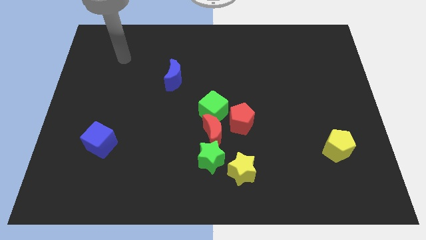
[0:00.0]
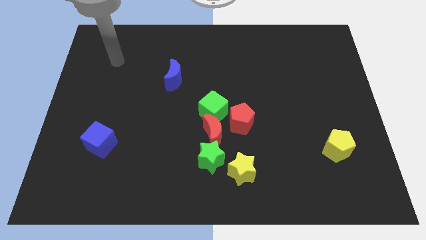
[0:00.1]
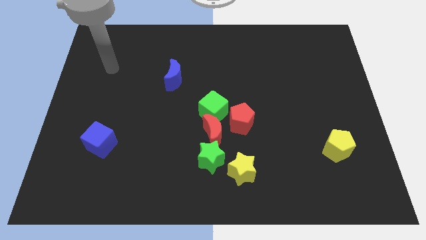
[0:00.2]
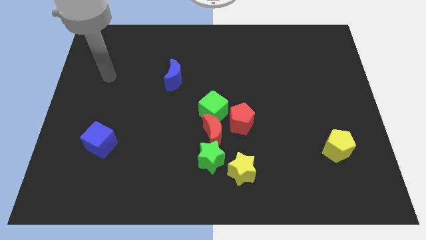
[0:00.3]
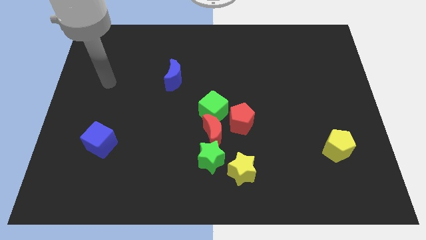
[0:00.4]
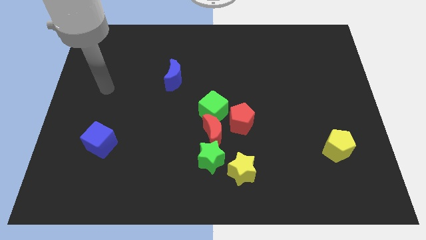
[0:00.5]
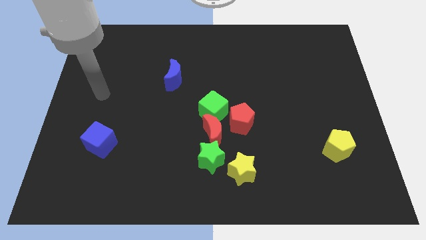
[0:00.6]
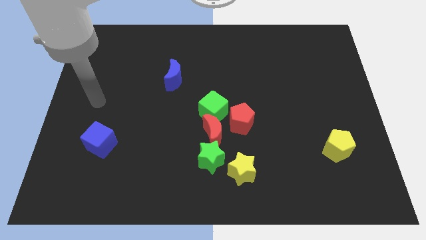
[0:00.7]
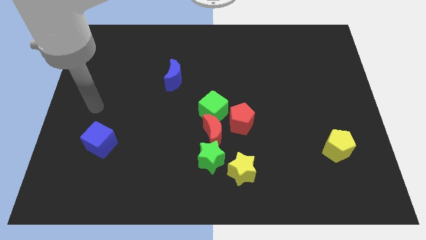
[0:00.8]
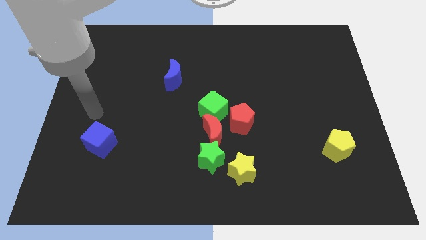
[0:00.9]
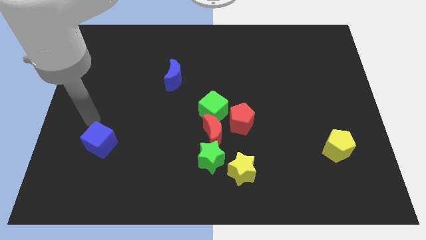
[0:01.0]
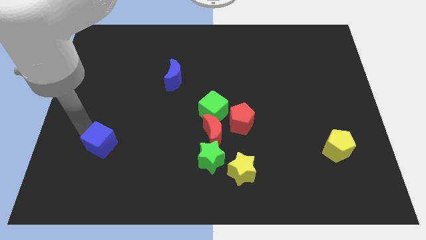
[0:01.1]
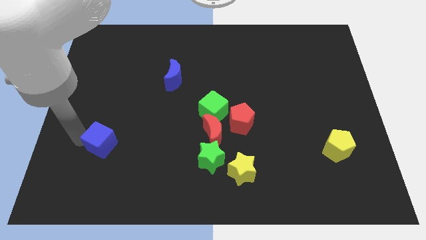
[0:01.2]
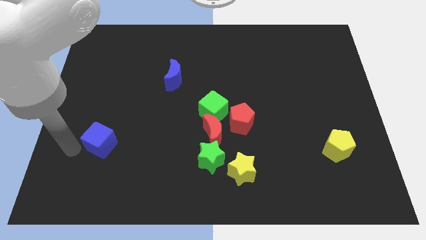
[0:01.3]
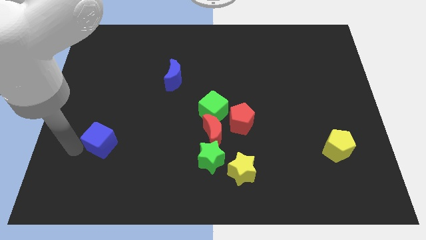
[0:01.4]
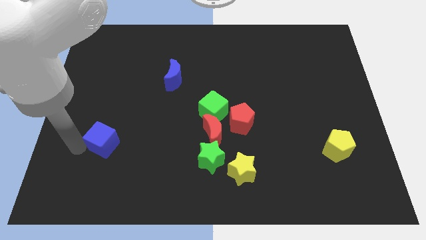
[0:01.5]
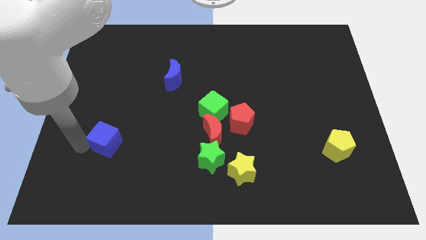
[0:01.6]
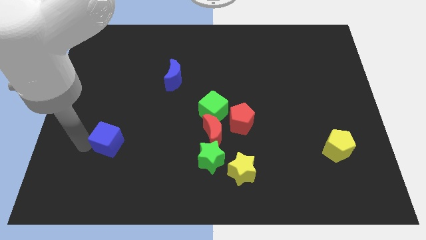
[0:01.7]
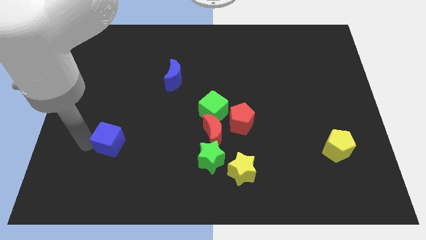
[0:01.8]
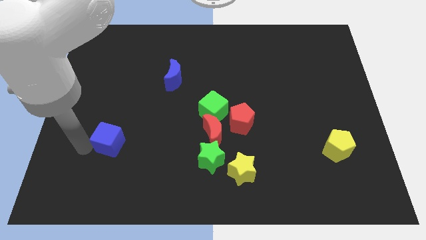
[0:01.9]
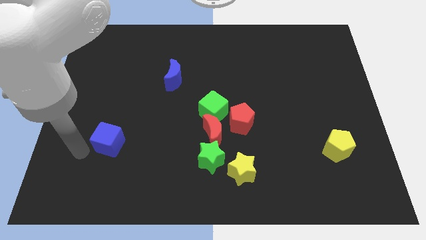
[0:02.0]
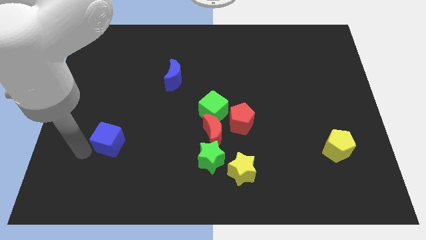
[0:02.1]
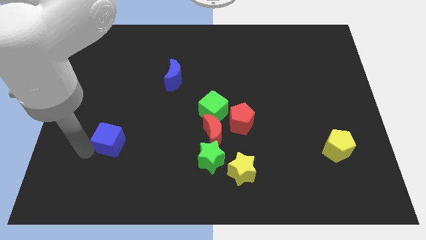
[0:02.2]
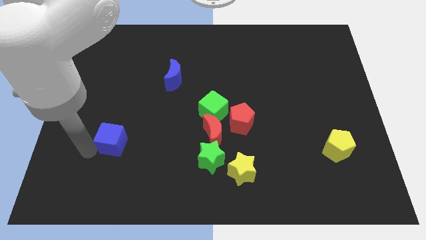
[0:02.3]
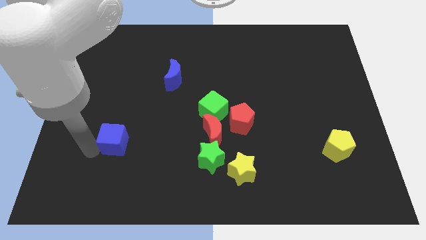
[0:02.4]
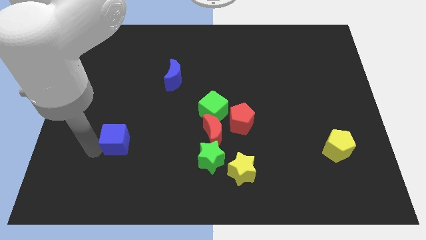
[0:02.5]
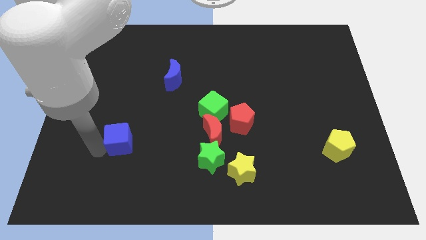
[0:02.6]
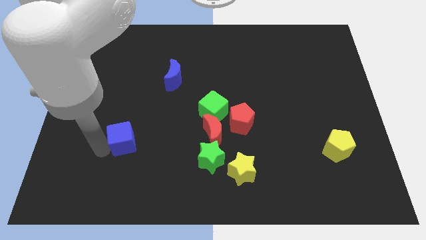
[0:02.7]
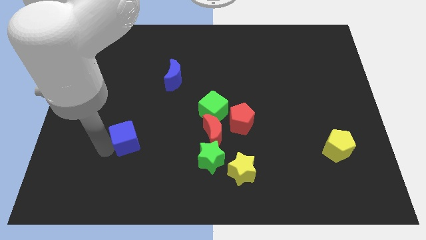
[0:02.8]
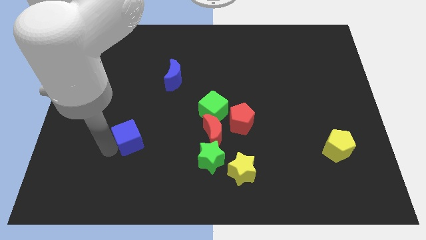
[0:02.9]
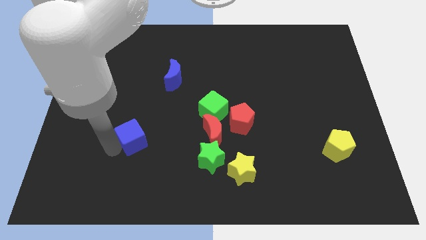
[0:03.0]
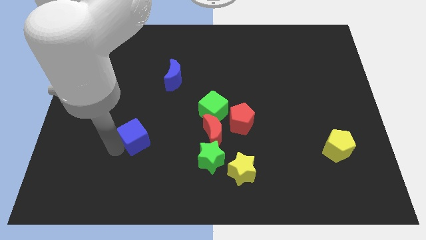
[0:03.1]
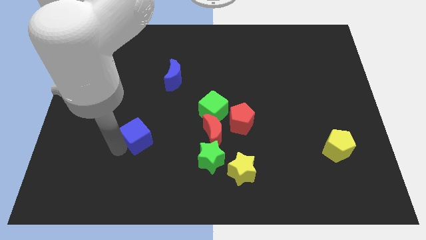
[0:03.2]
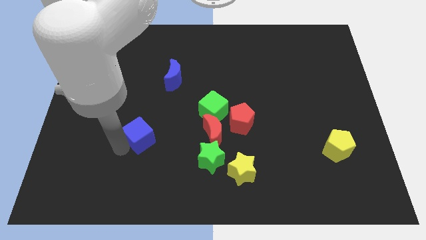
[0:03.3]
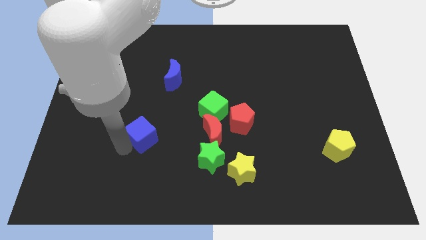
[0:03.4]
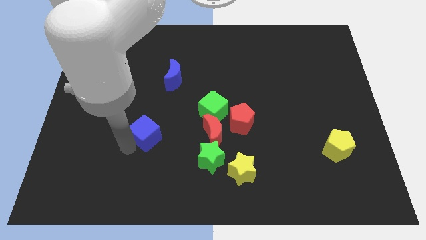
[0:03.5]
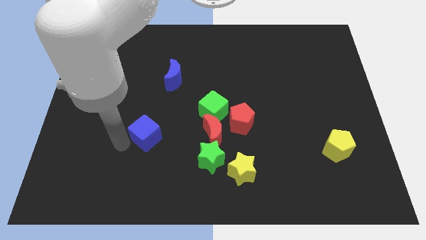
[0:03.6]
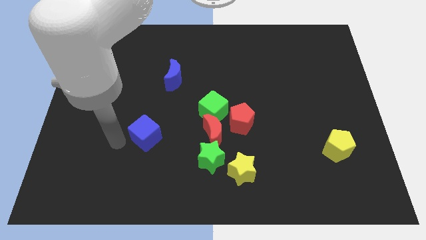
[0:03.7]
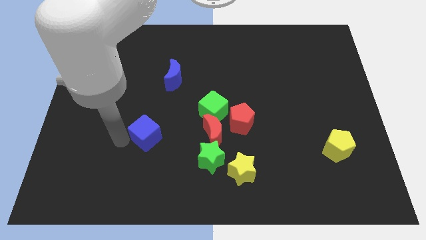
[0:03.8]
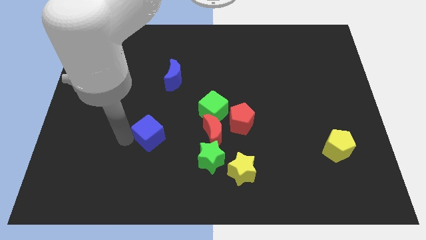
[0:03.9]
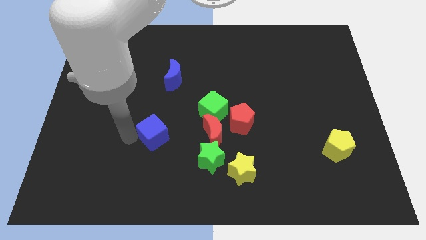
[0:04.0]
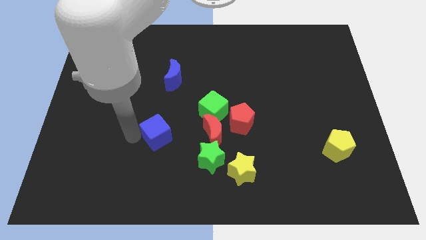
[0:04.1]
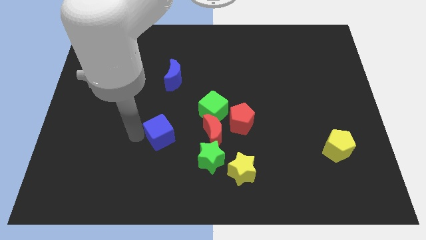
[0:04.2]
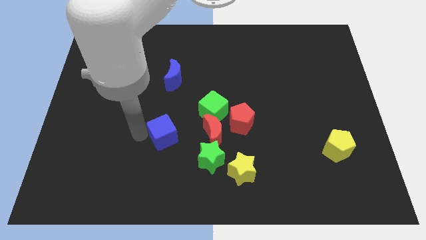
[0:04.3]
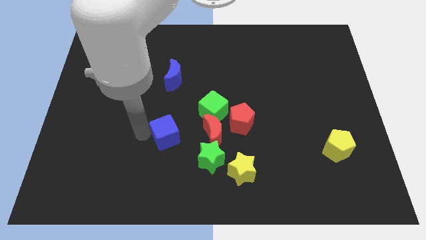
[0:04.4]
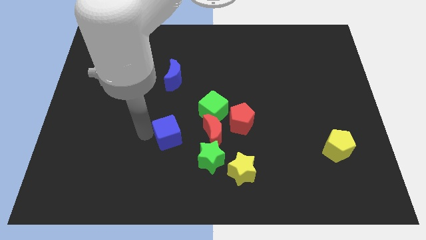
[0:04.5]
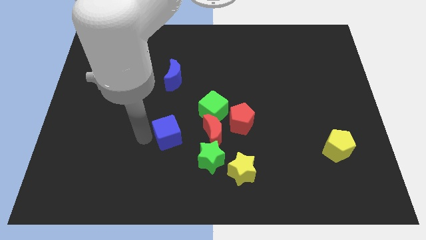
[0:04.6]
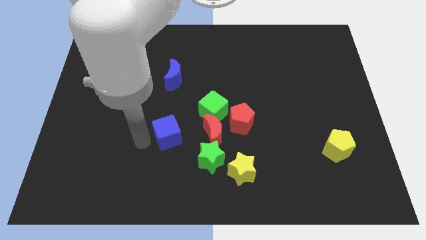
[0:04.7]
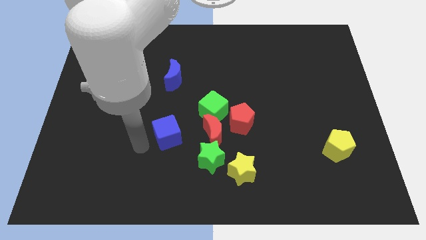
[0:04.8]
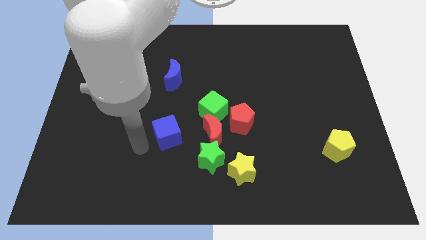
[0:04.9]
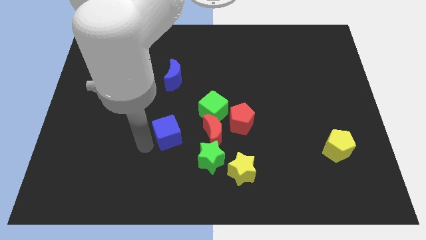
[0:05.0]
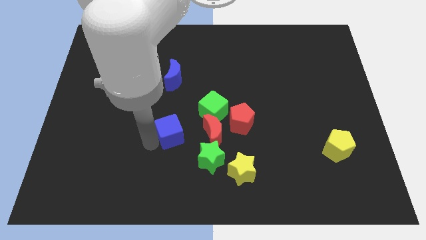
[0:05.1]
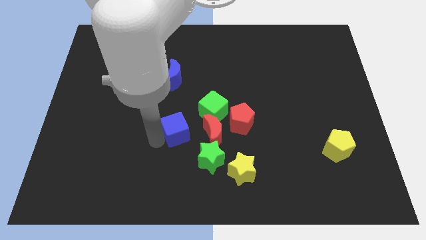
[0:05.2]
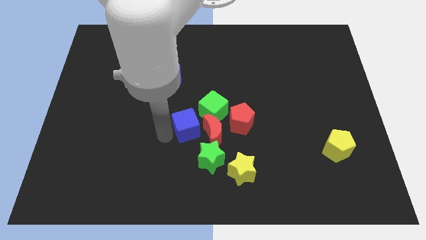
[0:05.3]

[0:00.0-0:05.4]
push the blue cube next to the red moon

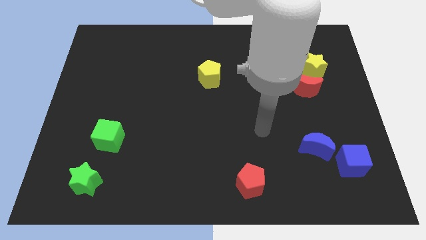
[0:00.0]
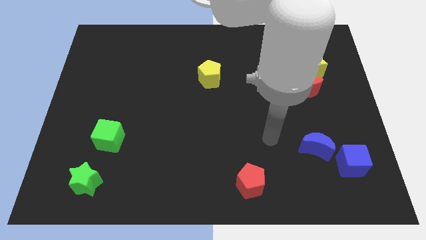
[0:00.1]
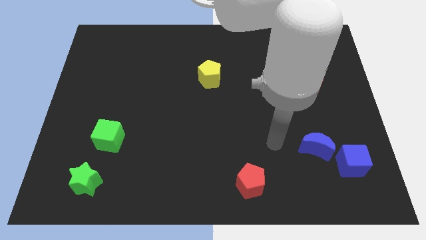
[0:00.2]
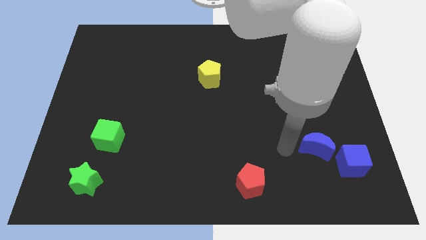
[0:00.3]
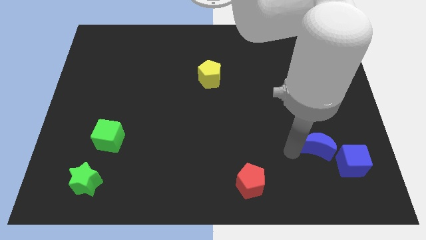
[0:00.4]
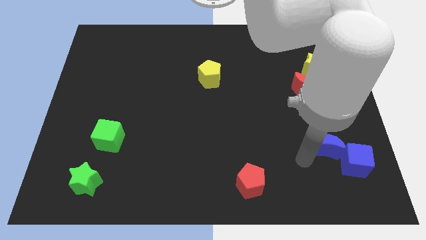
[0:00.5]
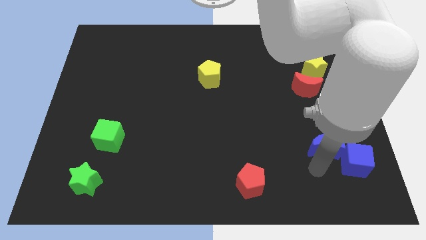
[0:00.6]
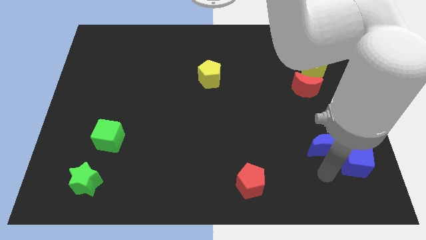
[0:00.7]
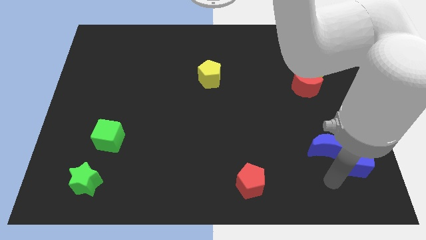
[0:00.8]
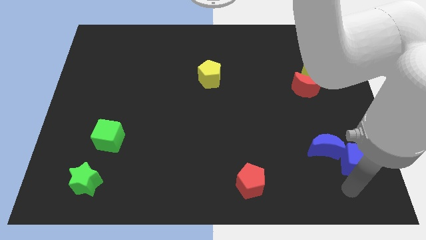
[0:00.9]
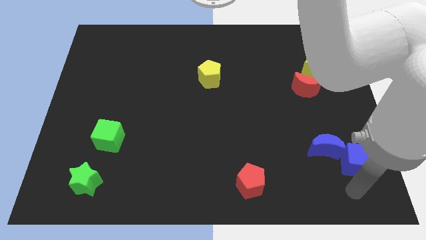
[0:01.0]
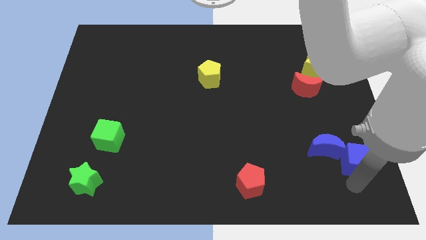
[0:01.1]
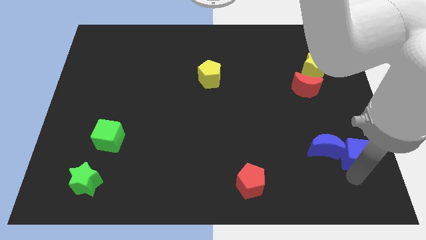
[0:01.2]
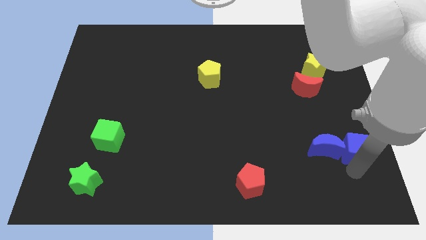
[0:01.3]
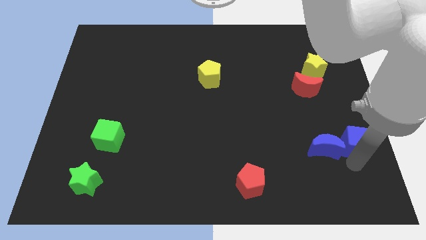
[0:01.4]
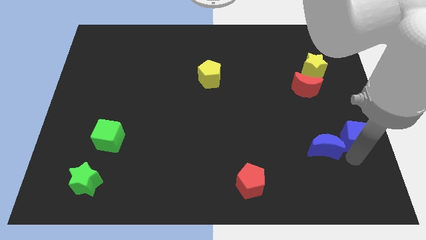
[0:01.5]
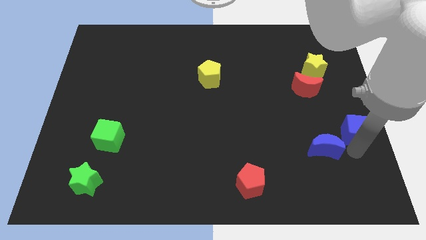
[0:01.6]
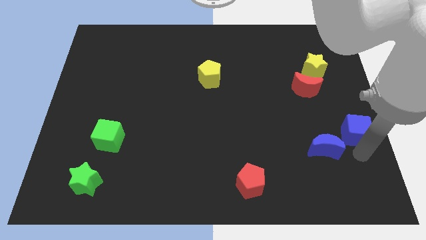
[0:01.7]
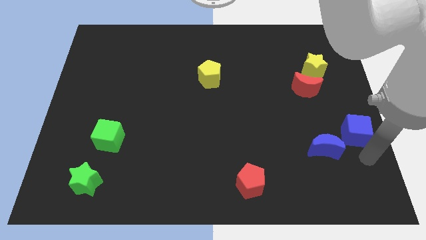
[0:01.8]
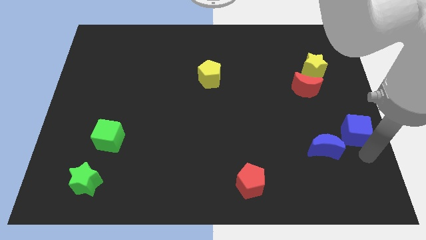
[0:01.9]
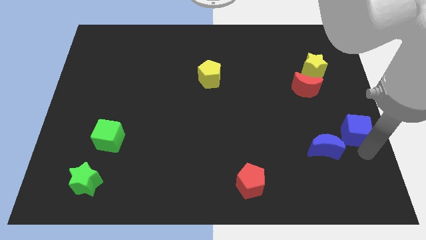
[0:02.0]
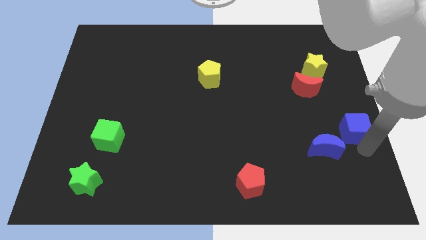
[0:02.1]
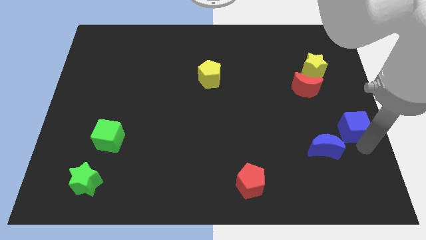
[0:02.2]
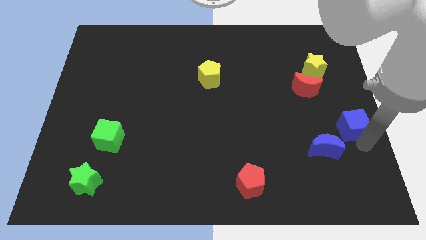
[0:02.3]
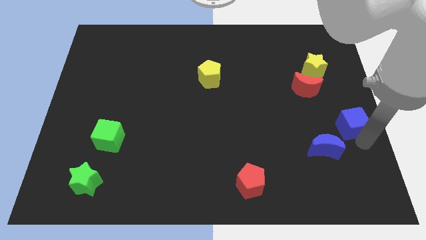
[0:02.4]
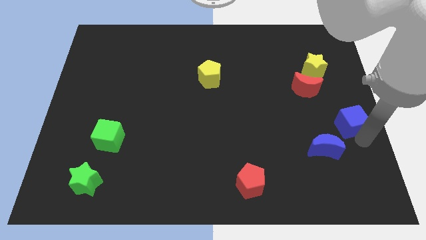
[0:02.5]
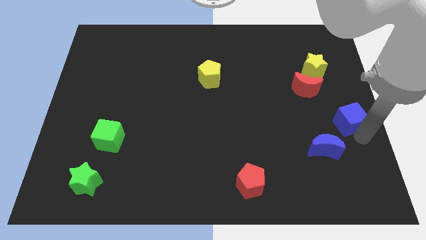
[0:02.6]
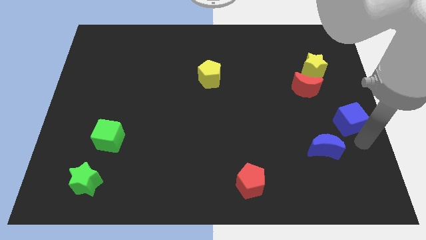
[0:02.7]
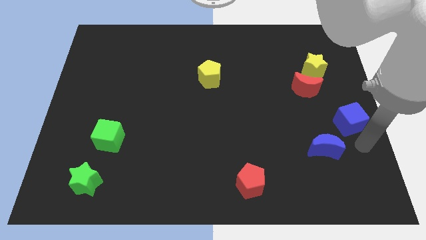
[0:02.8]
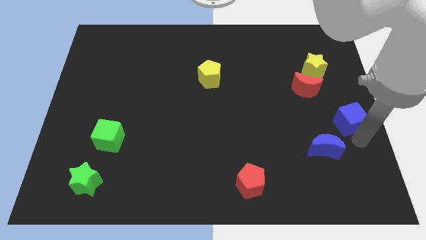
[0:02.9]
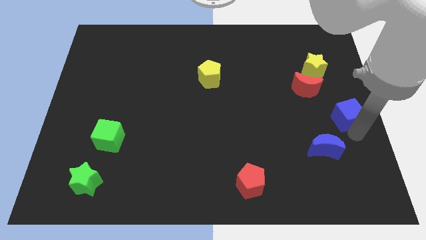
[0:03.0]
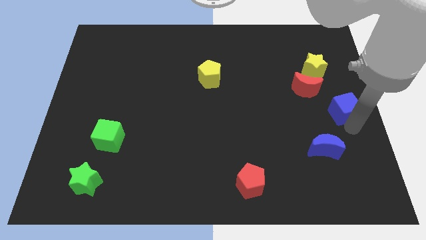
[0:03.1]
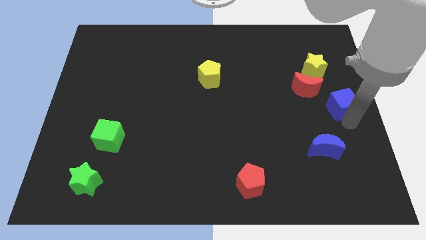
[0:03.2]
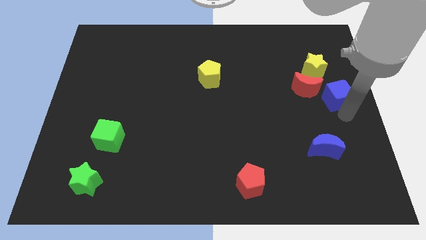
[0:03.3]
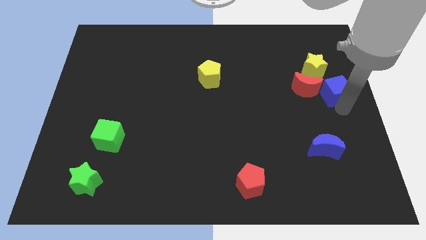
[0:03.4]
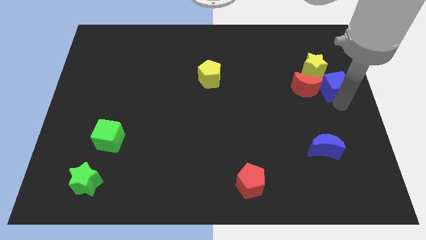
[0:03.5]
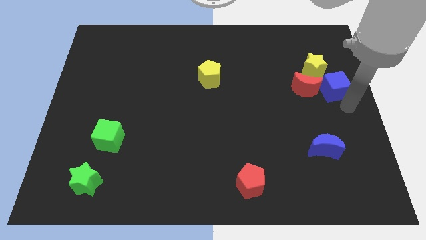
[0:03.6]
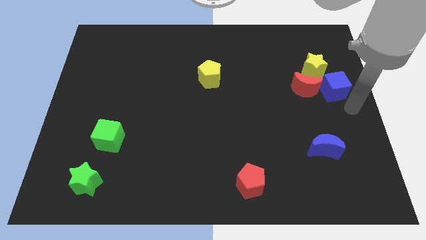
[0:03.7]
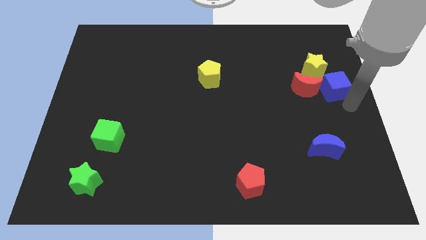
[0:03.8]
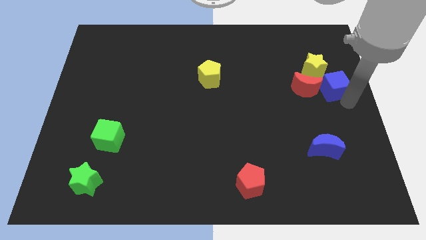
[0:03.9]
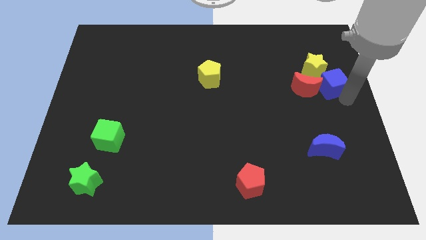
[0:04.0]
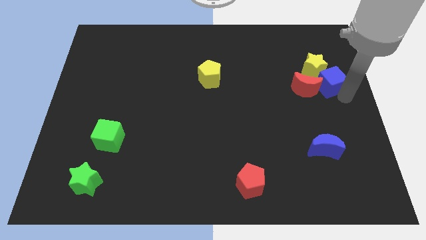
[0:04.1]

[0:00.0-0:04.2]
slide the blue cube towards the yellow star
